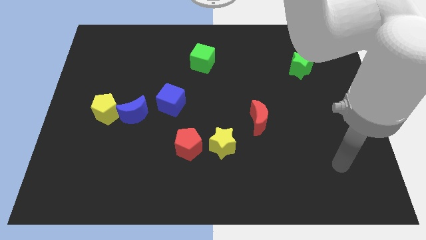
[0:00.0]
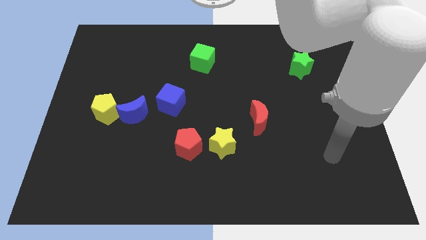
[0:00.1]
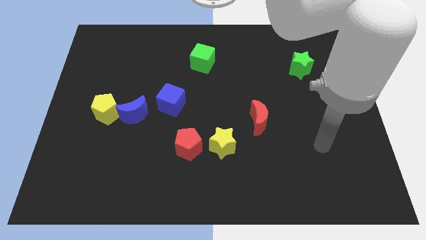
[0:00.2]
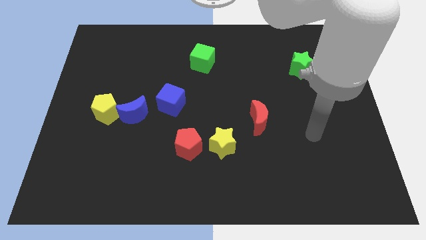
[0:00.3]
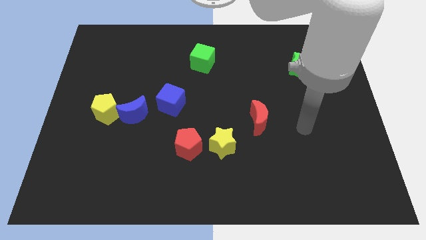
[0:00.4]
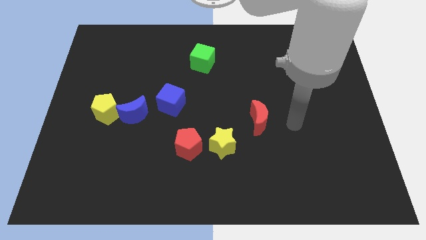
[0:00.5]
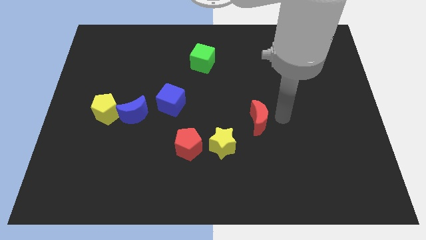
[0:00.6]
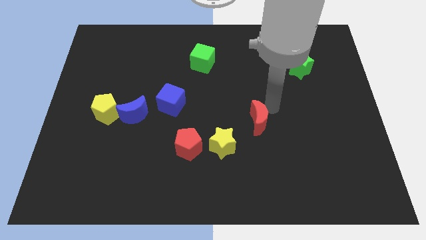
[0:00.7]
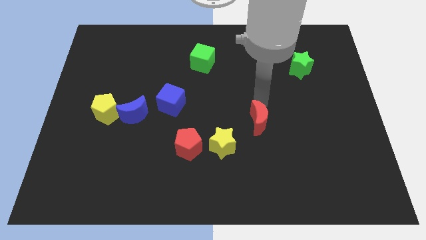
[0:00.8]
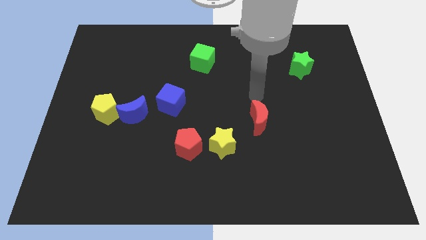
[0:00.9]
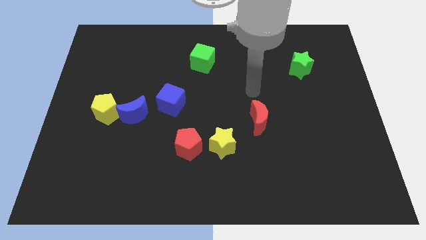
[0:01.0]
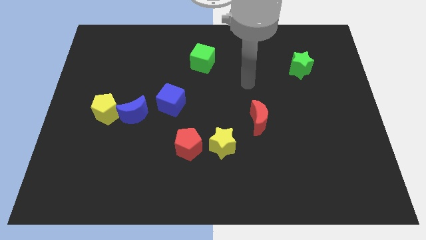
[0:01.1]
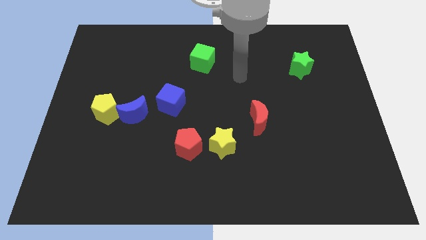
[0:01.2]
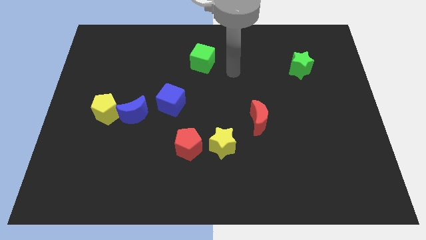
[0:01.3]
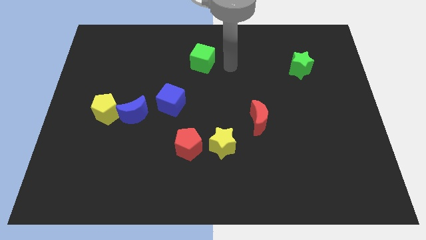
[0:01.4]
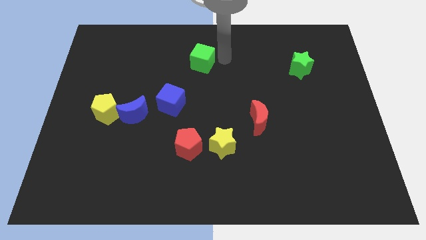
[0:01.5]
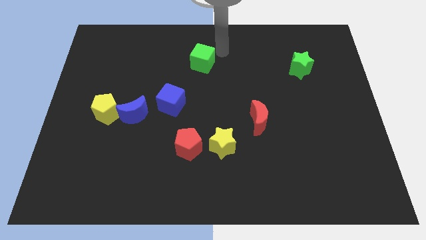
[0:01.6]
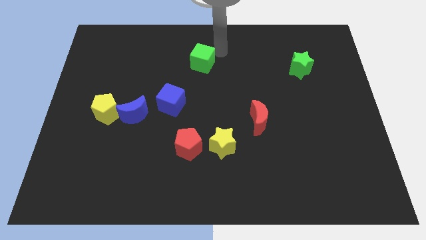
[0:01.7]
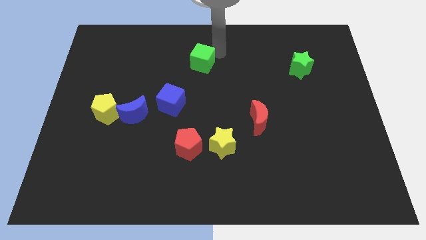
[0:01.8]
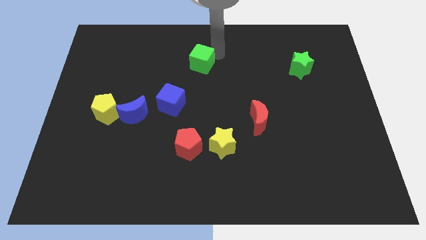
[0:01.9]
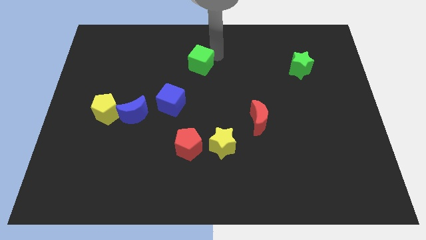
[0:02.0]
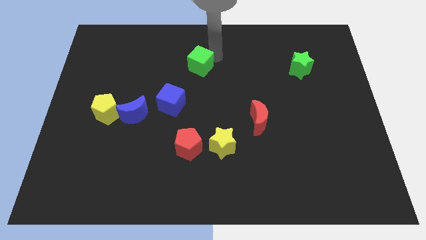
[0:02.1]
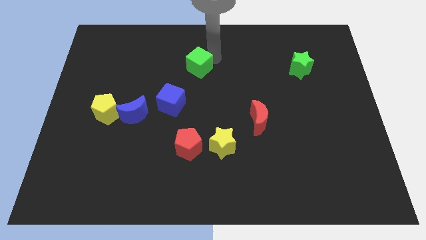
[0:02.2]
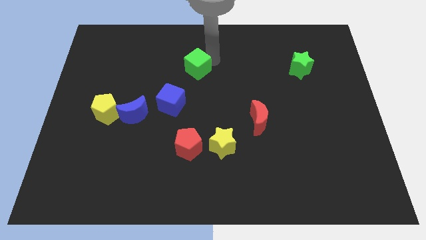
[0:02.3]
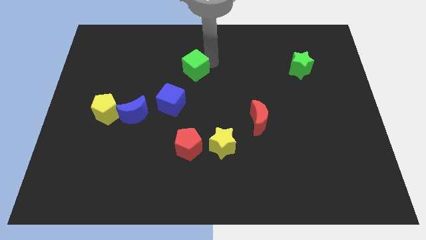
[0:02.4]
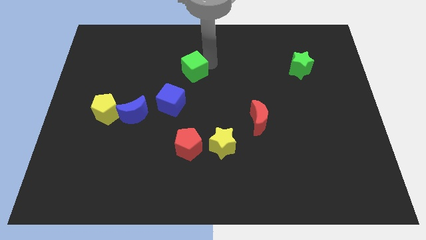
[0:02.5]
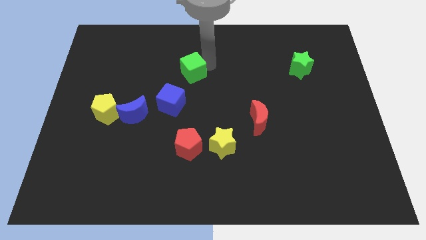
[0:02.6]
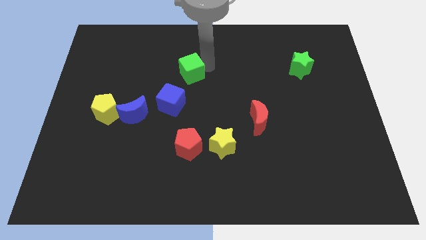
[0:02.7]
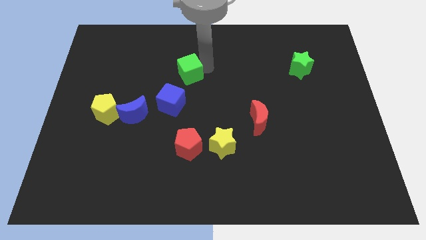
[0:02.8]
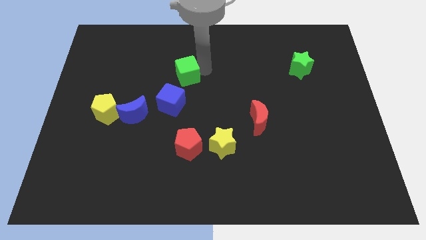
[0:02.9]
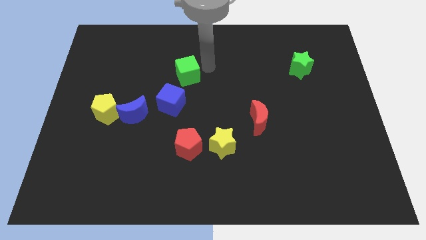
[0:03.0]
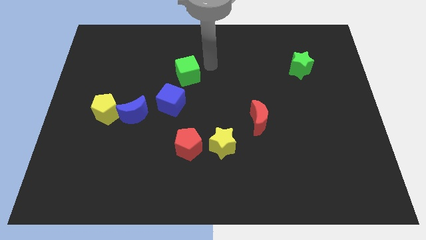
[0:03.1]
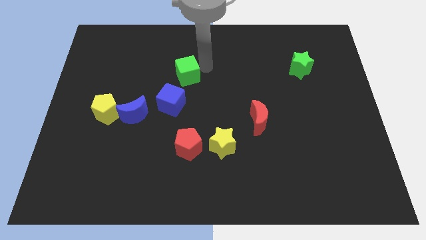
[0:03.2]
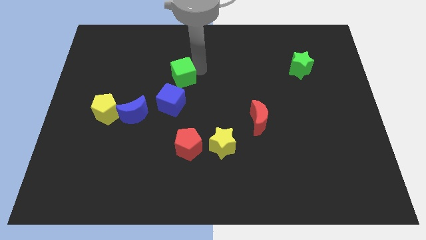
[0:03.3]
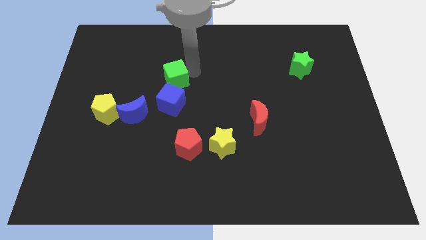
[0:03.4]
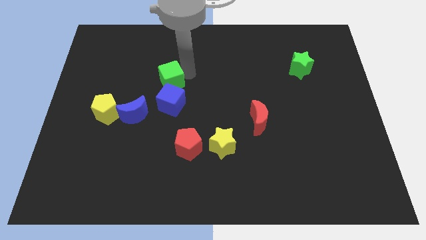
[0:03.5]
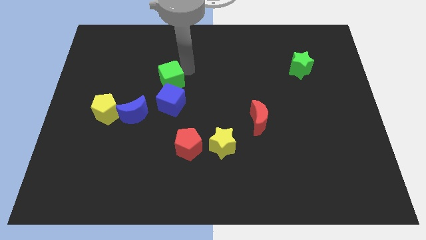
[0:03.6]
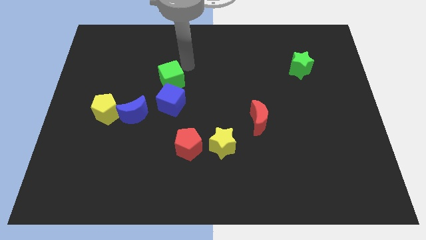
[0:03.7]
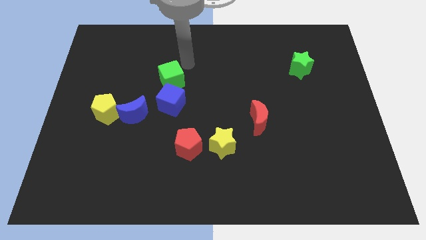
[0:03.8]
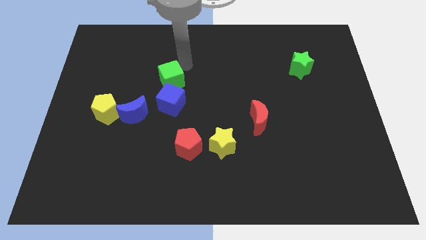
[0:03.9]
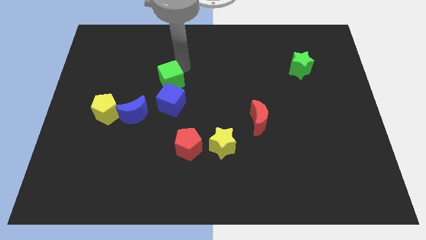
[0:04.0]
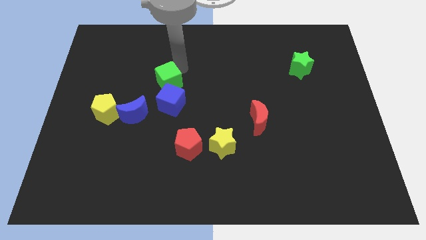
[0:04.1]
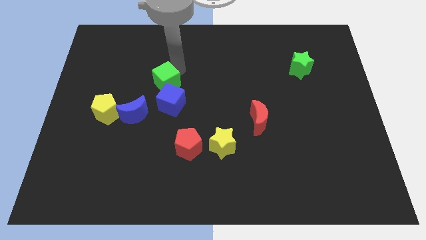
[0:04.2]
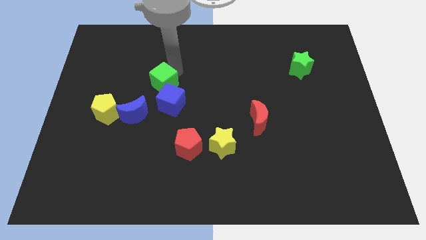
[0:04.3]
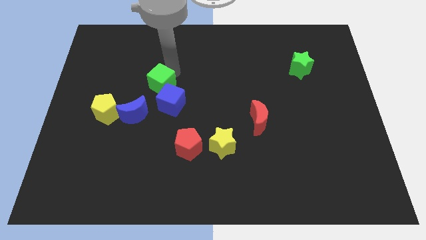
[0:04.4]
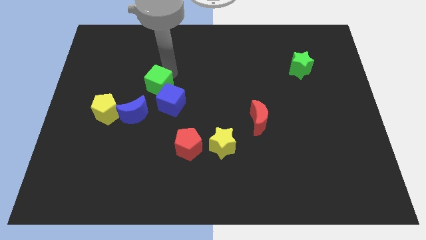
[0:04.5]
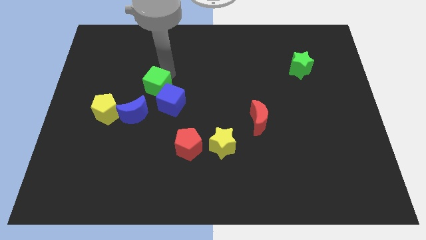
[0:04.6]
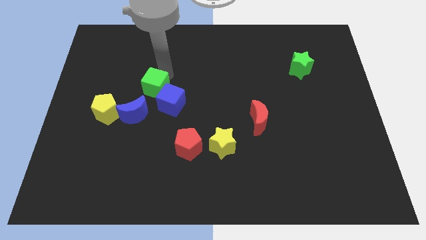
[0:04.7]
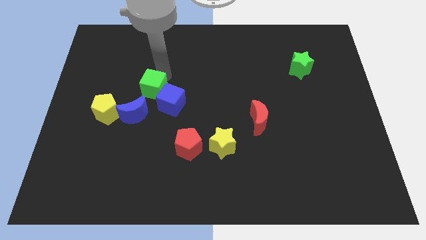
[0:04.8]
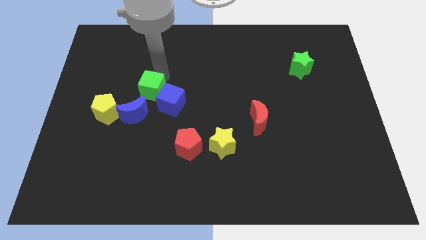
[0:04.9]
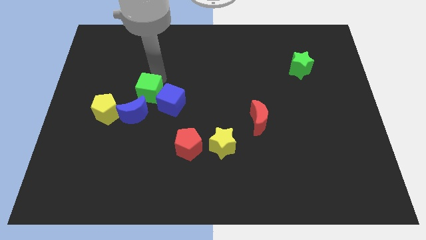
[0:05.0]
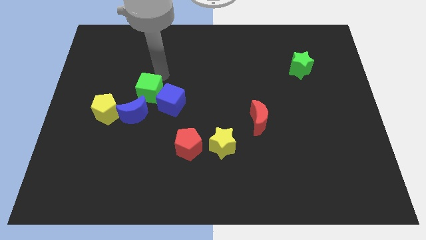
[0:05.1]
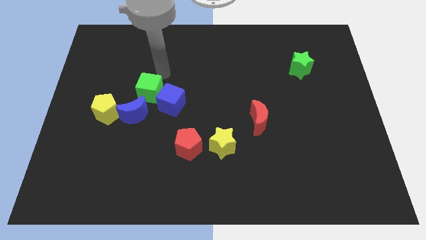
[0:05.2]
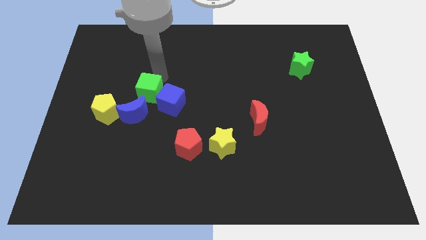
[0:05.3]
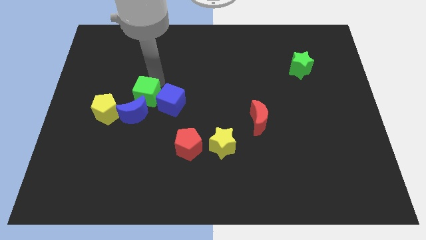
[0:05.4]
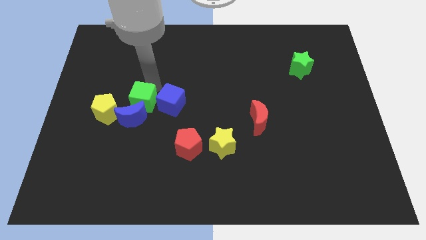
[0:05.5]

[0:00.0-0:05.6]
slide the green cube next to the blue moon

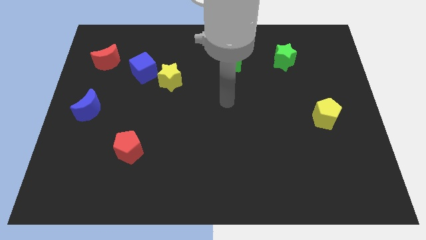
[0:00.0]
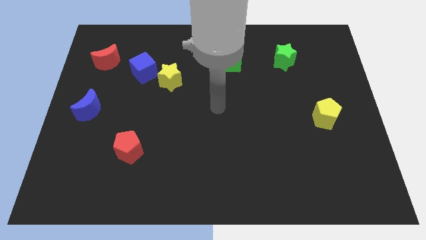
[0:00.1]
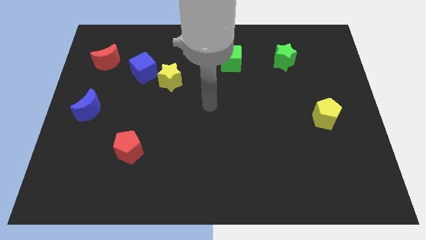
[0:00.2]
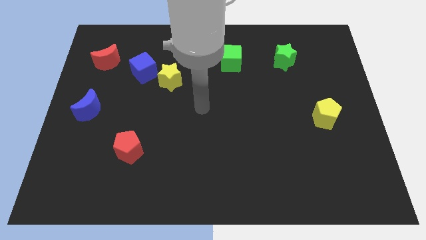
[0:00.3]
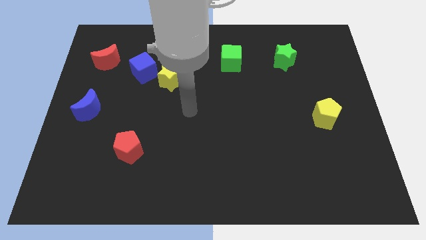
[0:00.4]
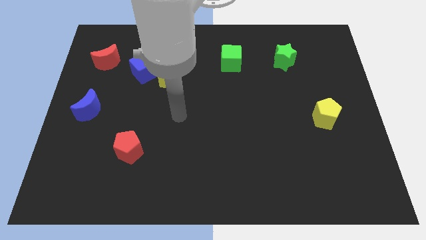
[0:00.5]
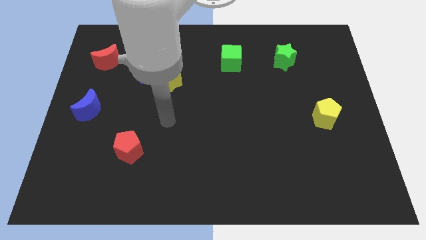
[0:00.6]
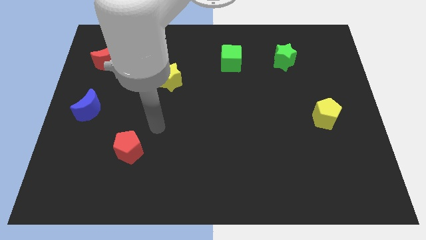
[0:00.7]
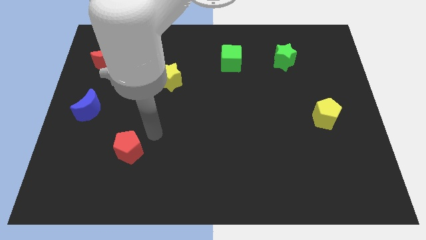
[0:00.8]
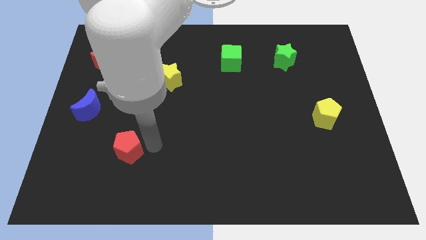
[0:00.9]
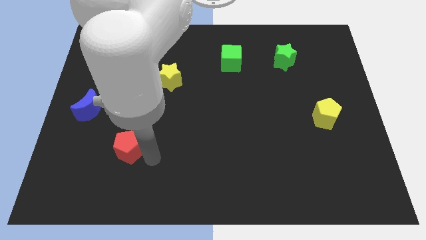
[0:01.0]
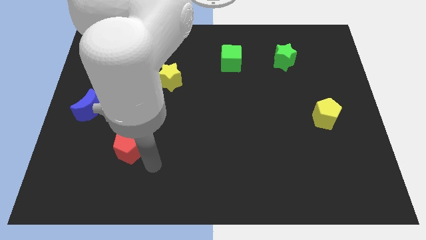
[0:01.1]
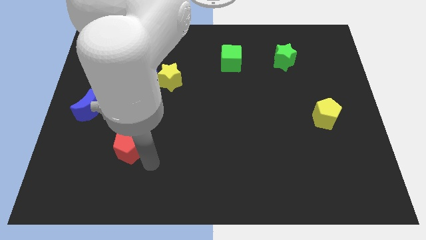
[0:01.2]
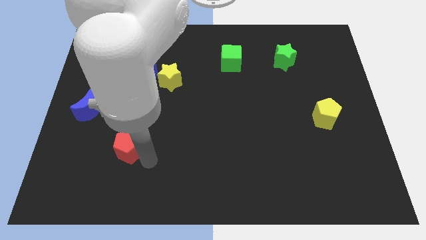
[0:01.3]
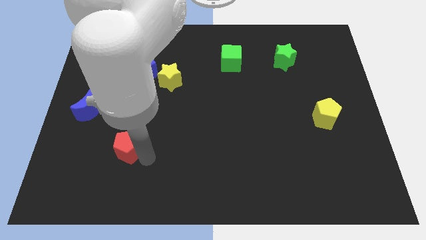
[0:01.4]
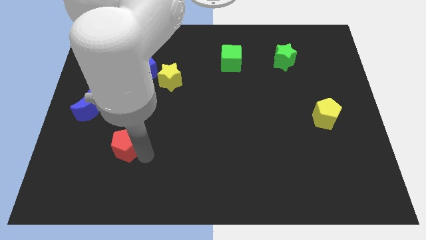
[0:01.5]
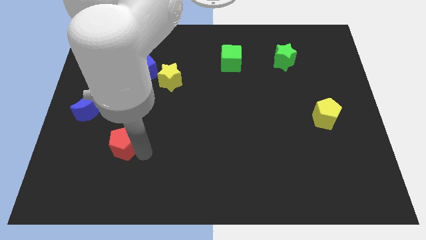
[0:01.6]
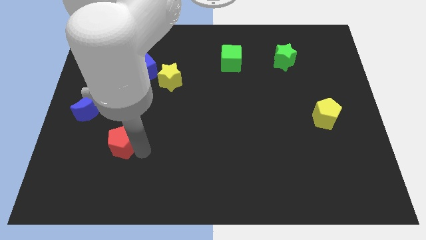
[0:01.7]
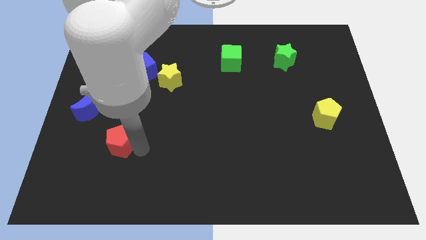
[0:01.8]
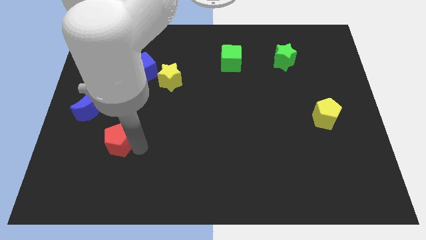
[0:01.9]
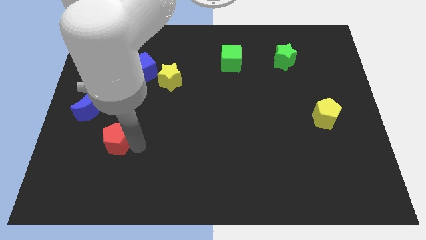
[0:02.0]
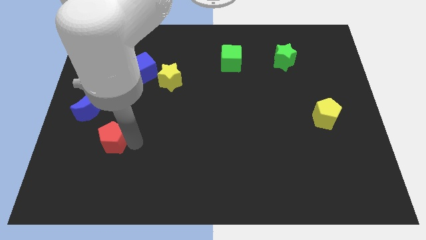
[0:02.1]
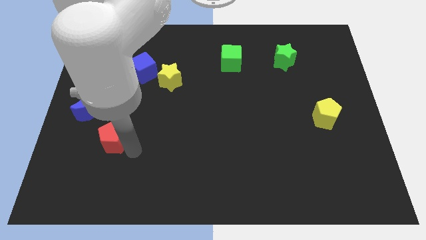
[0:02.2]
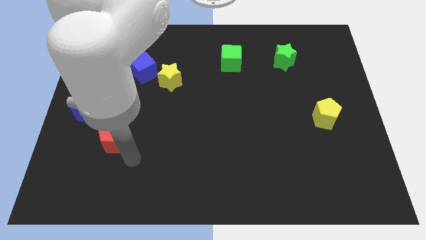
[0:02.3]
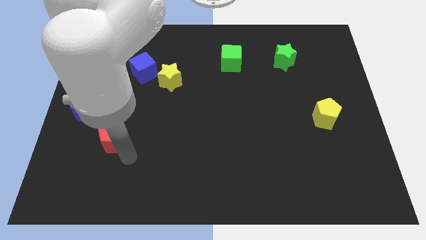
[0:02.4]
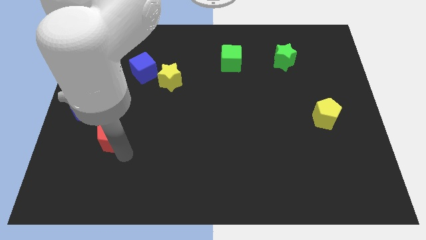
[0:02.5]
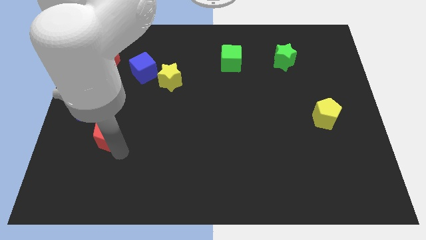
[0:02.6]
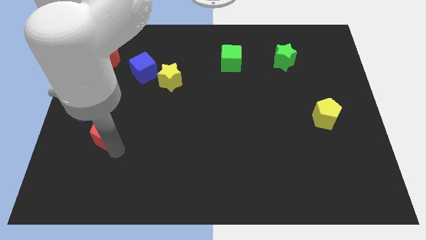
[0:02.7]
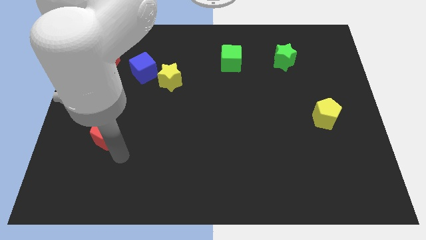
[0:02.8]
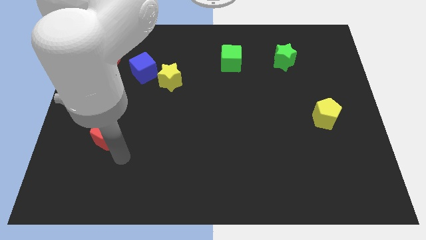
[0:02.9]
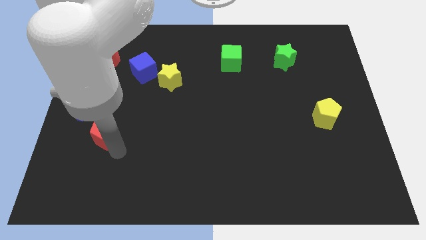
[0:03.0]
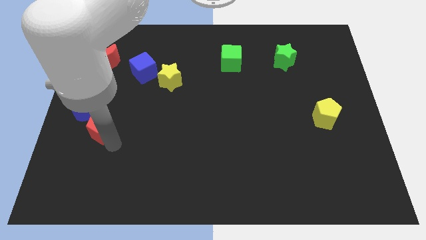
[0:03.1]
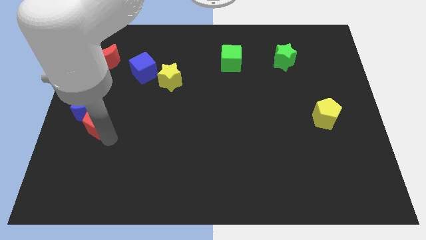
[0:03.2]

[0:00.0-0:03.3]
slide the red pentagon towards the blue moon
